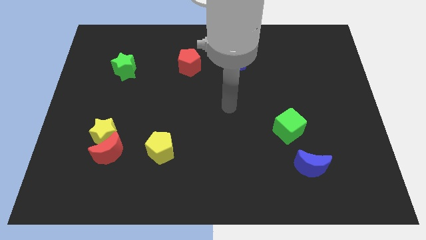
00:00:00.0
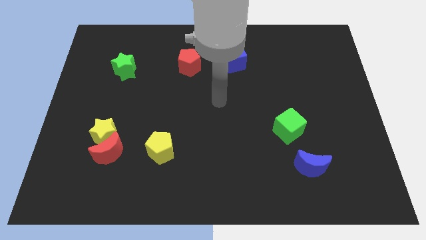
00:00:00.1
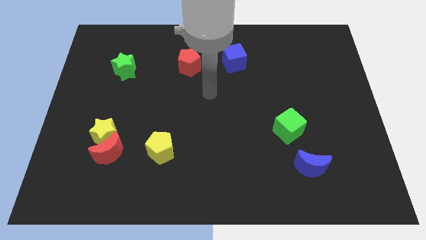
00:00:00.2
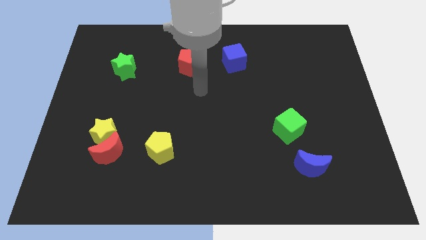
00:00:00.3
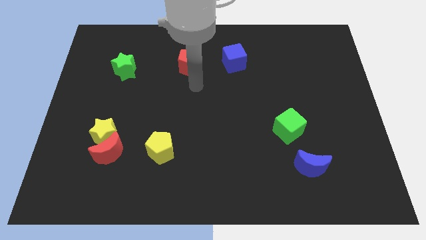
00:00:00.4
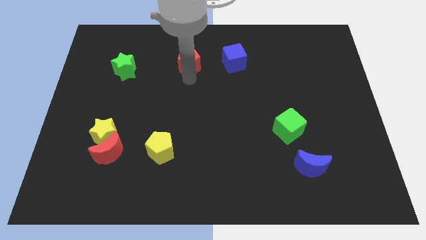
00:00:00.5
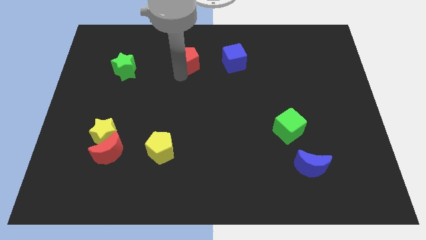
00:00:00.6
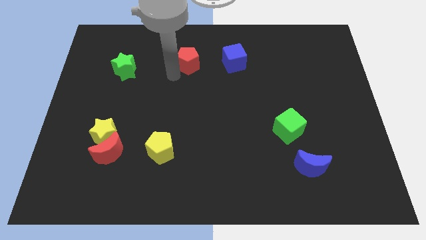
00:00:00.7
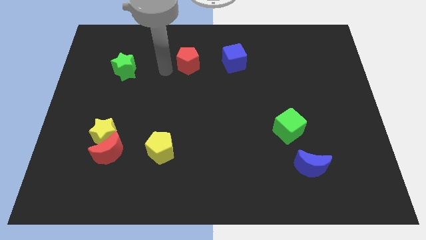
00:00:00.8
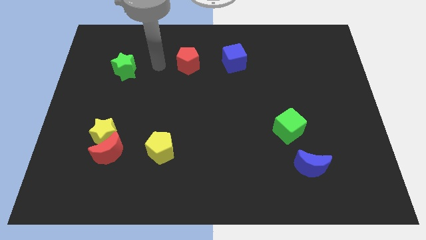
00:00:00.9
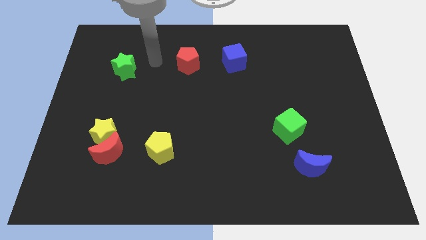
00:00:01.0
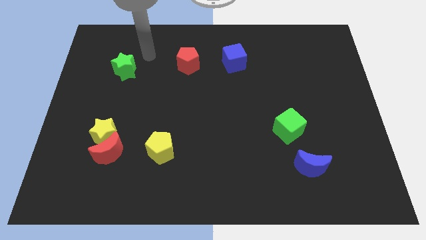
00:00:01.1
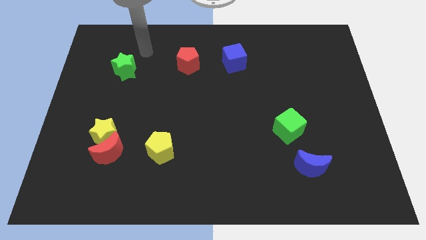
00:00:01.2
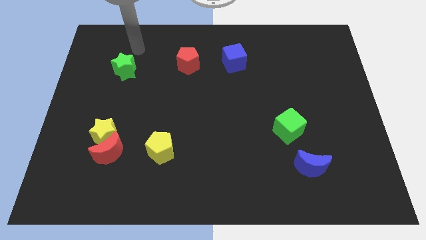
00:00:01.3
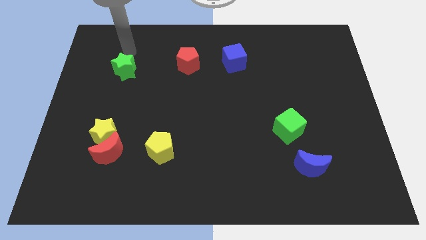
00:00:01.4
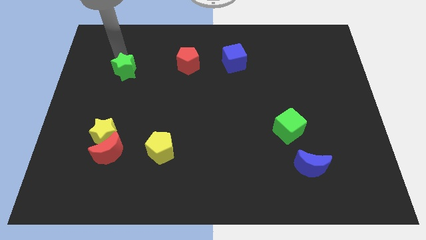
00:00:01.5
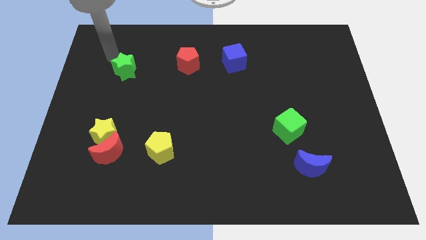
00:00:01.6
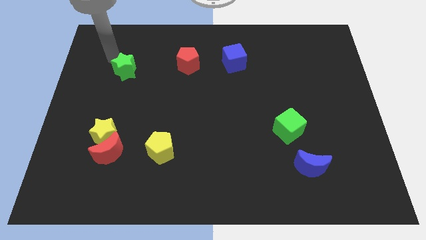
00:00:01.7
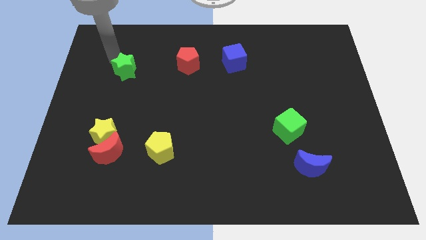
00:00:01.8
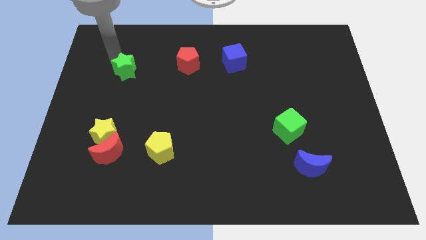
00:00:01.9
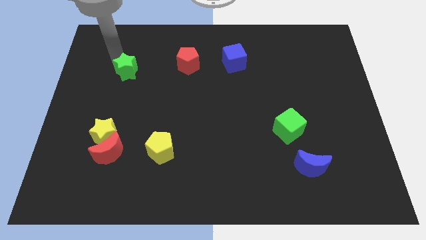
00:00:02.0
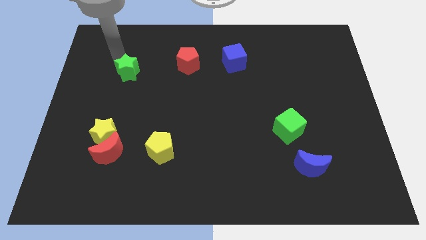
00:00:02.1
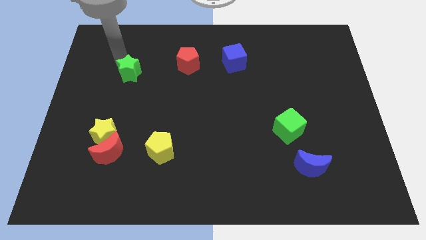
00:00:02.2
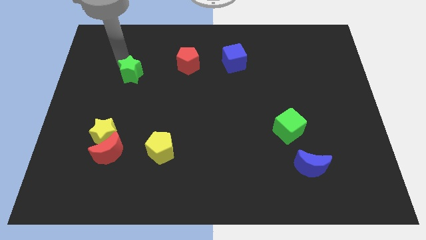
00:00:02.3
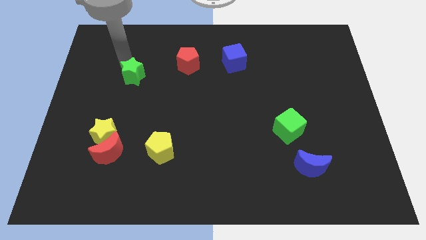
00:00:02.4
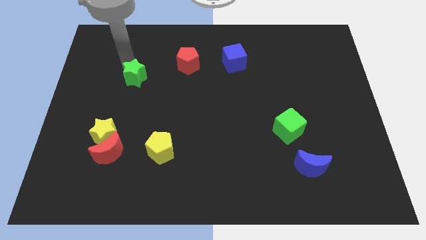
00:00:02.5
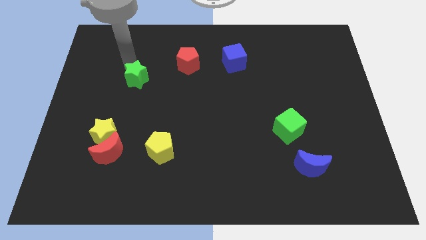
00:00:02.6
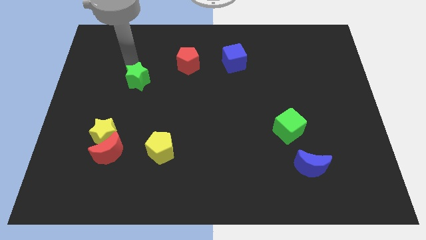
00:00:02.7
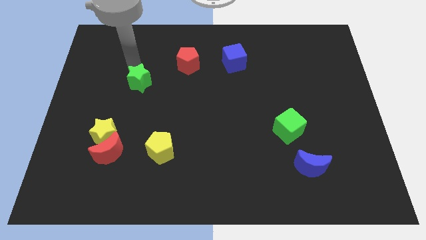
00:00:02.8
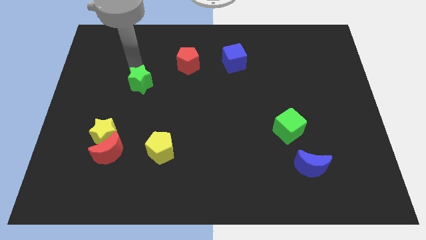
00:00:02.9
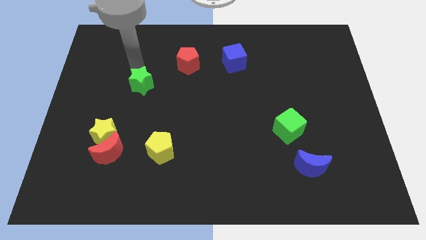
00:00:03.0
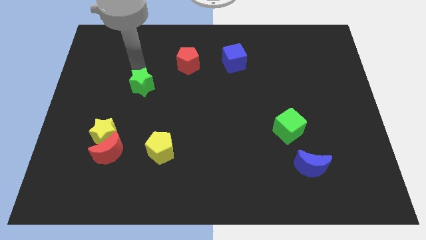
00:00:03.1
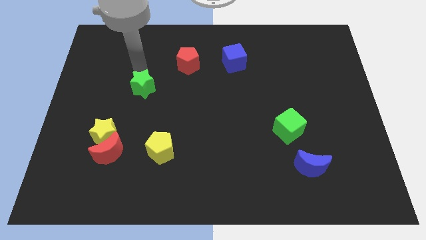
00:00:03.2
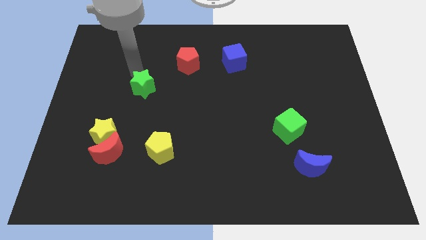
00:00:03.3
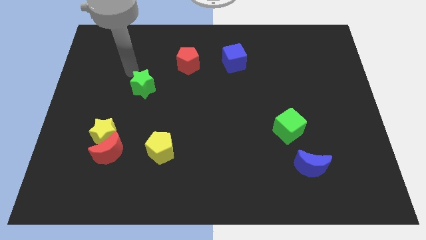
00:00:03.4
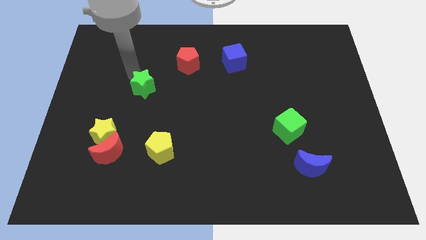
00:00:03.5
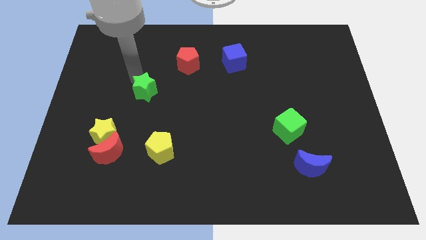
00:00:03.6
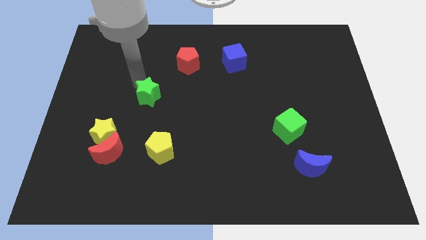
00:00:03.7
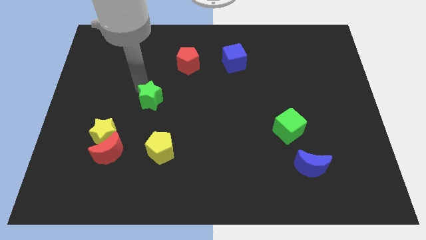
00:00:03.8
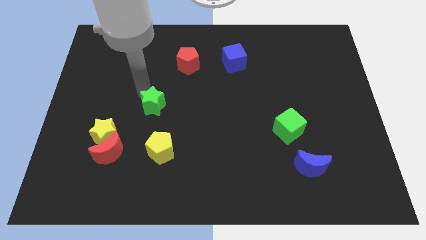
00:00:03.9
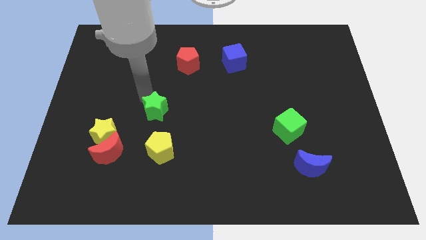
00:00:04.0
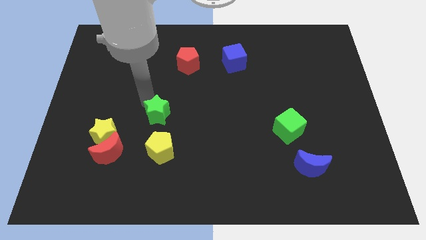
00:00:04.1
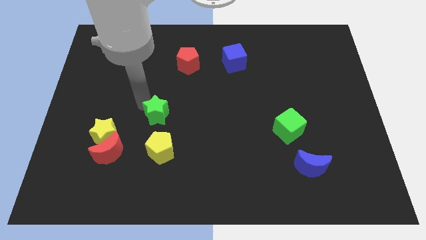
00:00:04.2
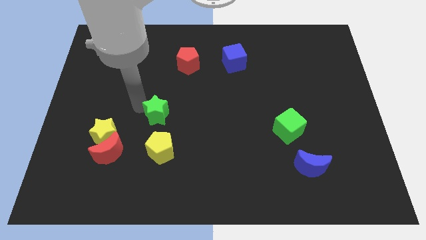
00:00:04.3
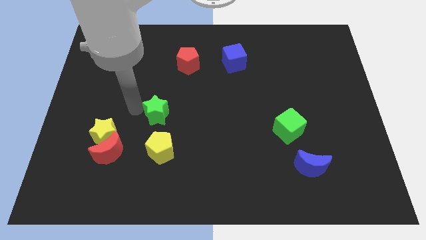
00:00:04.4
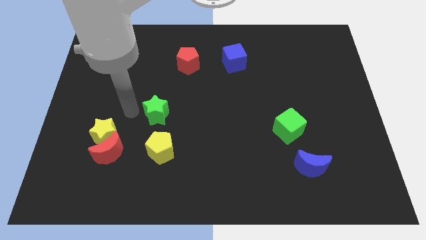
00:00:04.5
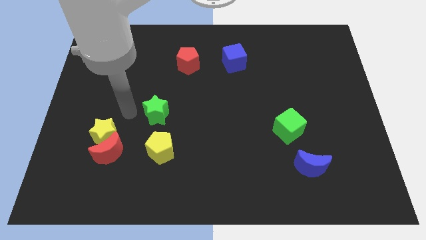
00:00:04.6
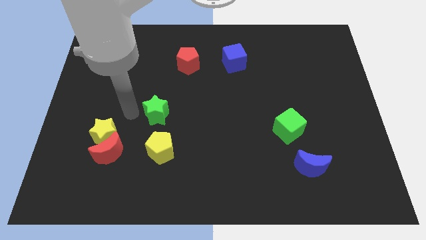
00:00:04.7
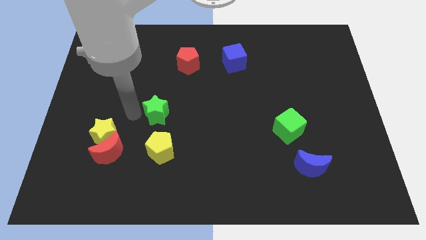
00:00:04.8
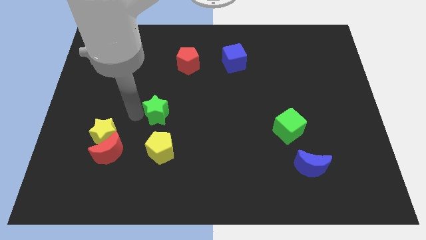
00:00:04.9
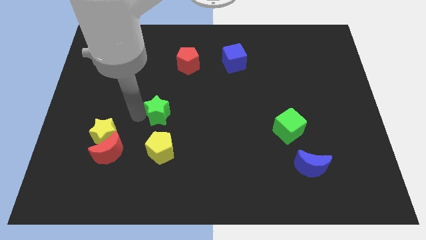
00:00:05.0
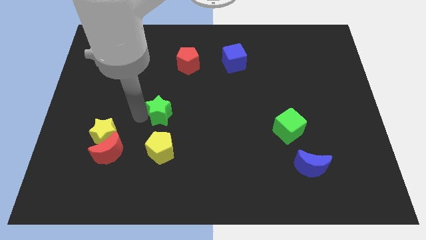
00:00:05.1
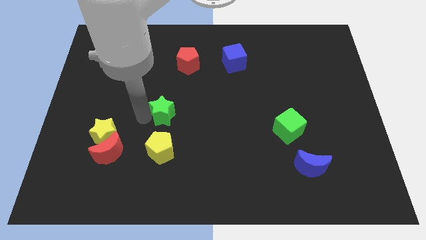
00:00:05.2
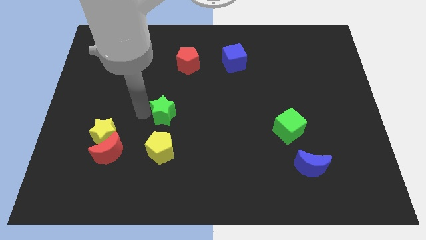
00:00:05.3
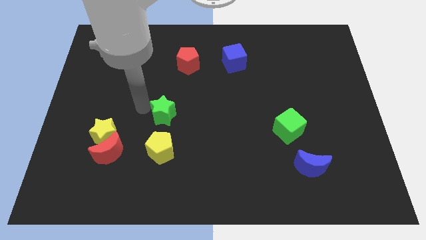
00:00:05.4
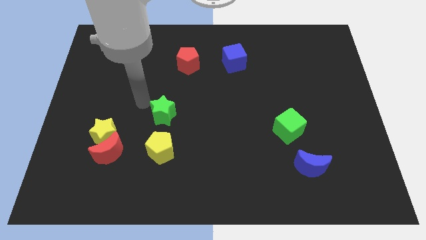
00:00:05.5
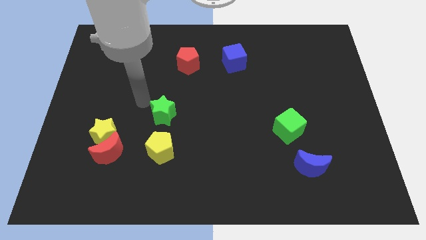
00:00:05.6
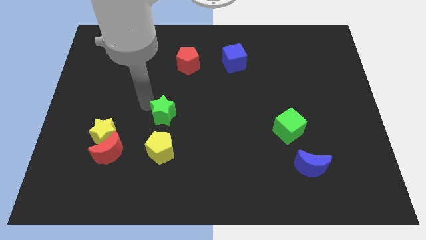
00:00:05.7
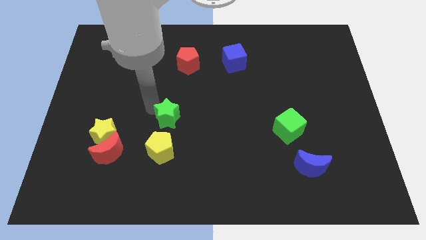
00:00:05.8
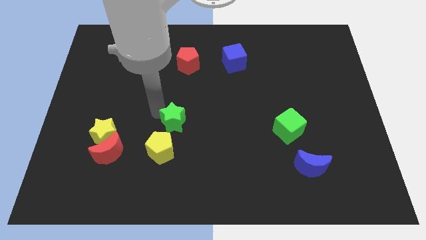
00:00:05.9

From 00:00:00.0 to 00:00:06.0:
push the green star diagonally down and to the right

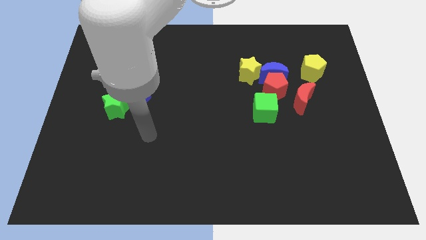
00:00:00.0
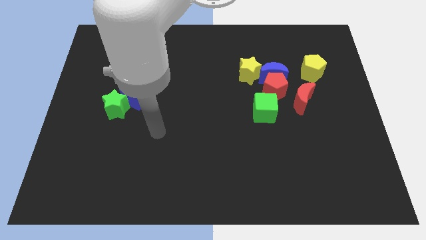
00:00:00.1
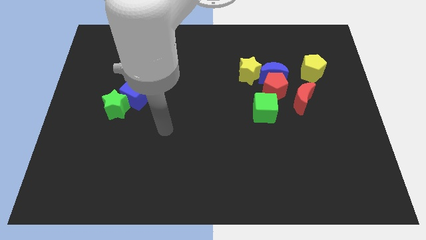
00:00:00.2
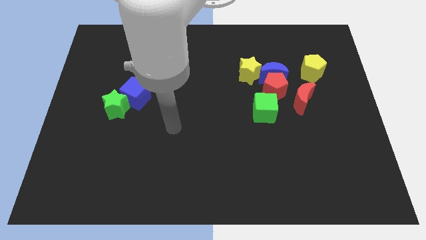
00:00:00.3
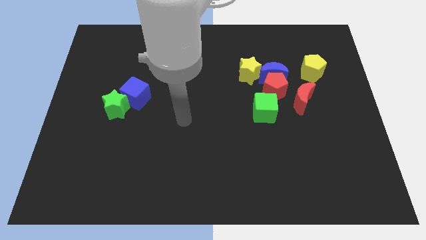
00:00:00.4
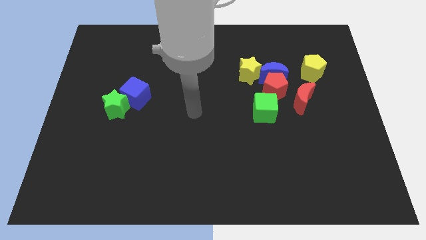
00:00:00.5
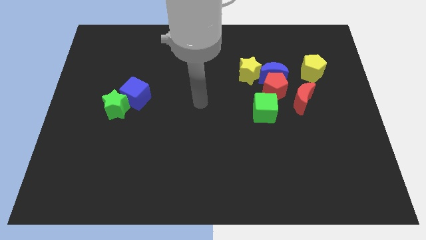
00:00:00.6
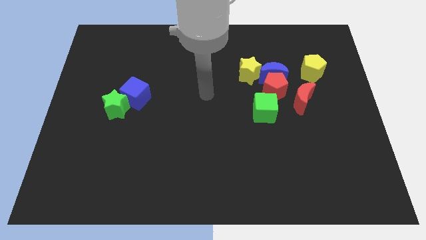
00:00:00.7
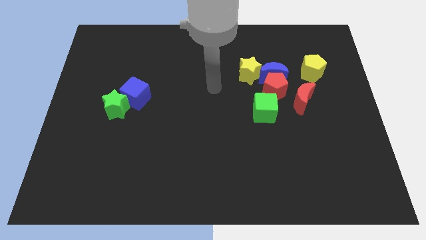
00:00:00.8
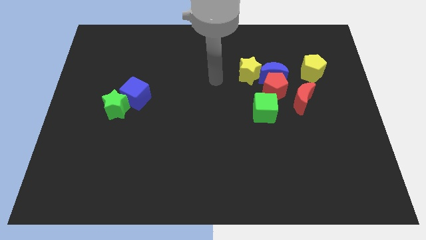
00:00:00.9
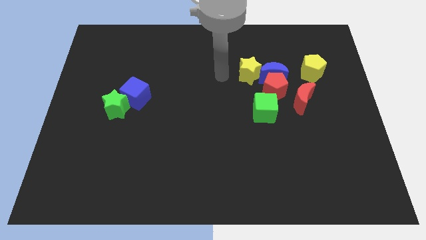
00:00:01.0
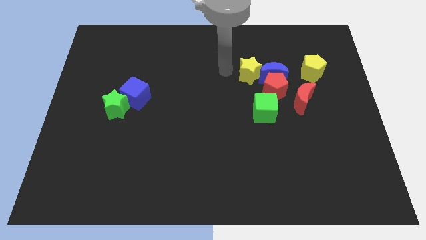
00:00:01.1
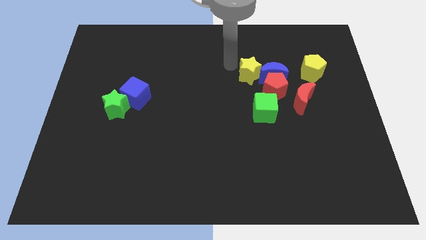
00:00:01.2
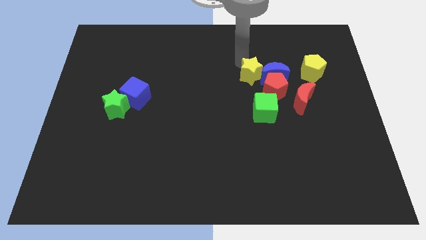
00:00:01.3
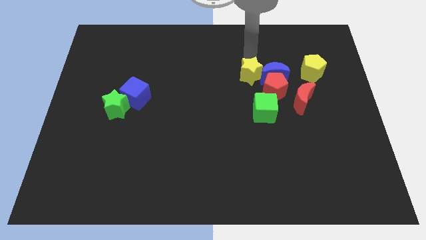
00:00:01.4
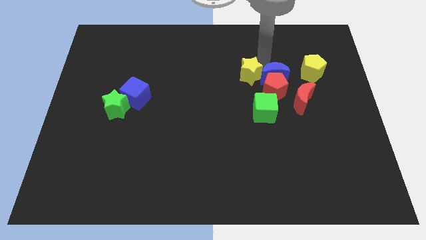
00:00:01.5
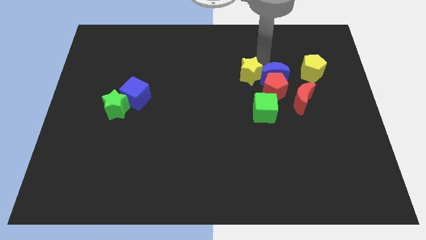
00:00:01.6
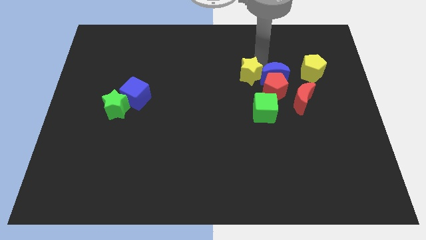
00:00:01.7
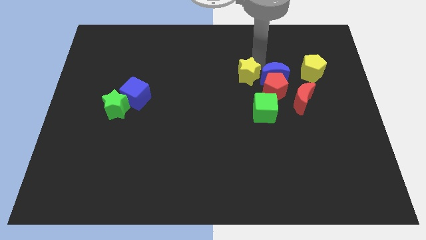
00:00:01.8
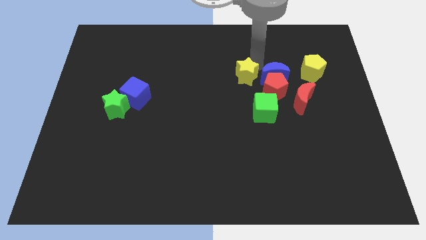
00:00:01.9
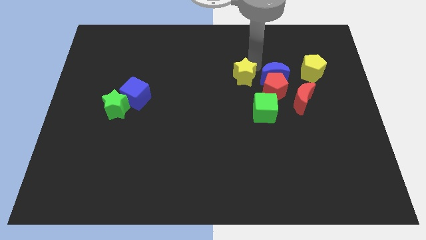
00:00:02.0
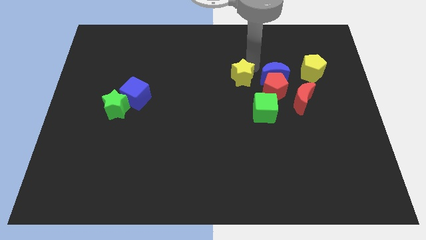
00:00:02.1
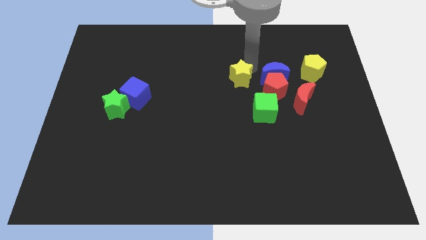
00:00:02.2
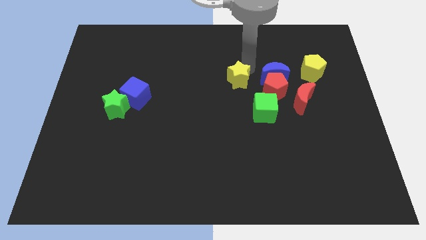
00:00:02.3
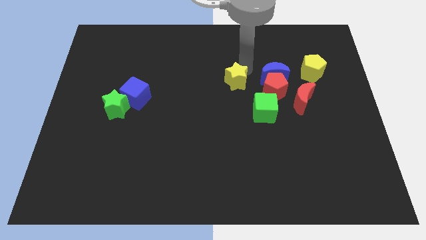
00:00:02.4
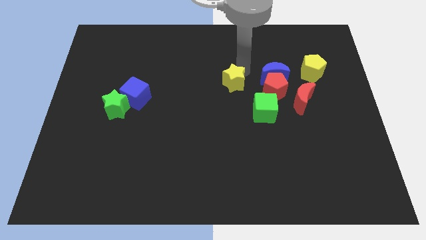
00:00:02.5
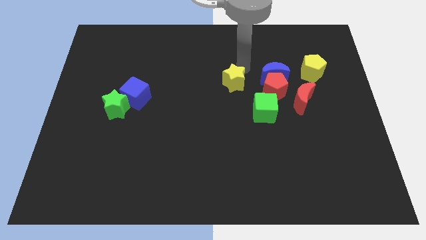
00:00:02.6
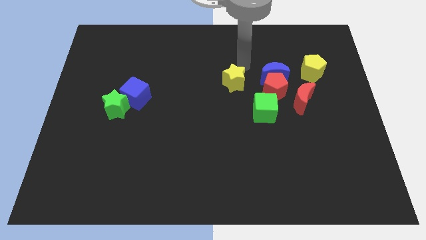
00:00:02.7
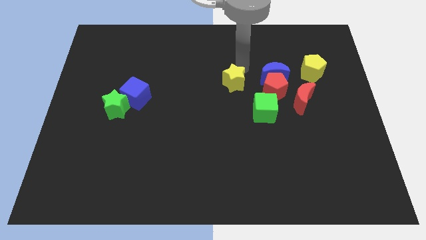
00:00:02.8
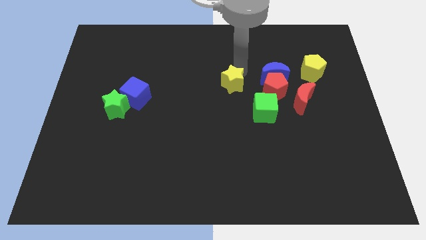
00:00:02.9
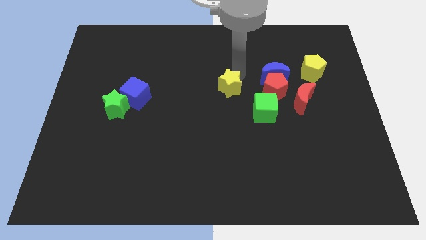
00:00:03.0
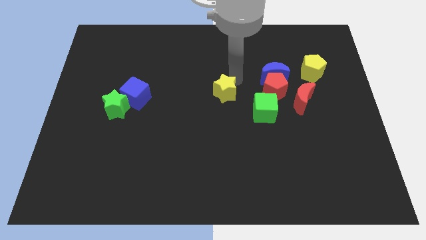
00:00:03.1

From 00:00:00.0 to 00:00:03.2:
push the yellow star a little bit down and left
